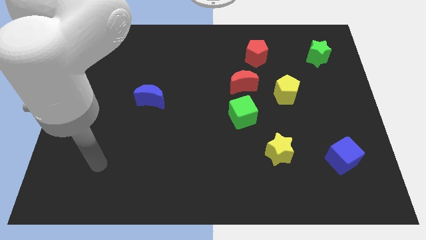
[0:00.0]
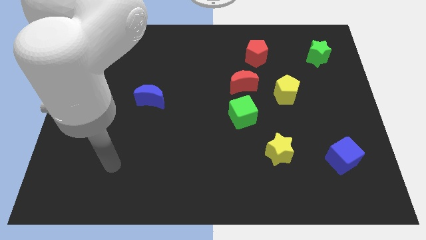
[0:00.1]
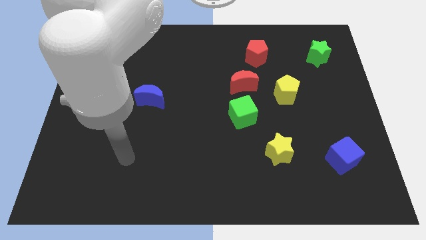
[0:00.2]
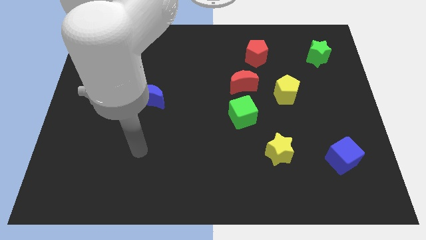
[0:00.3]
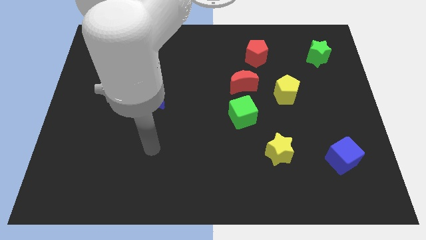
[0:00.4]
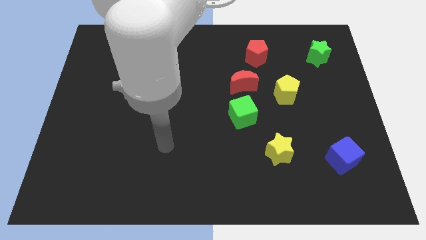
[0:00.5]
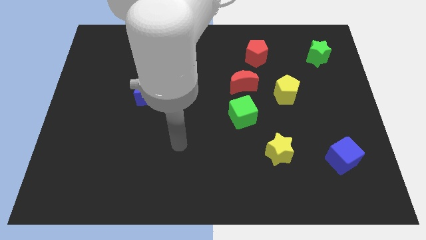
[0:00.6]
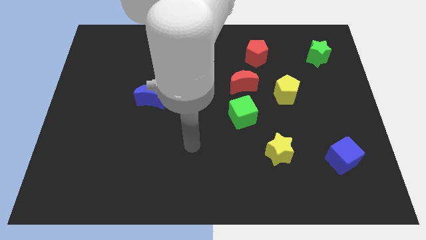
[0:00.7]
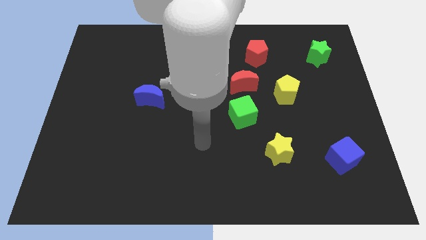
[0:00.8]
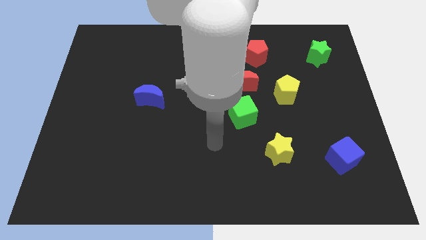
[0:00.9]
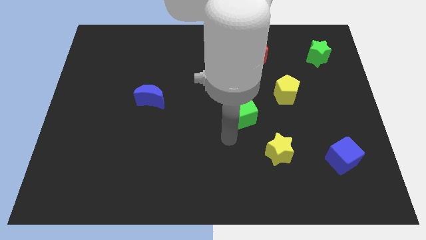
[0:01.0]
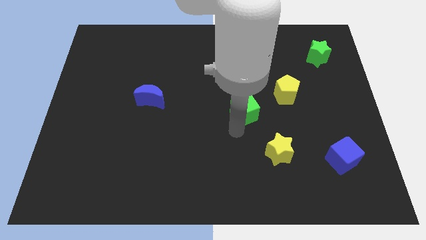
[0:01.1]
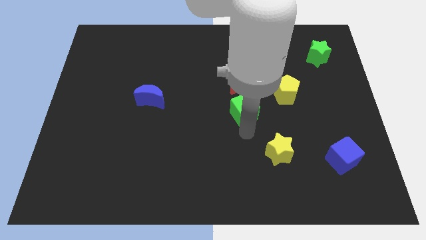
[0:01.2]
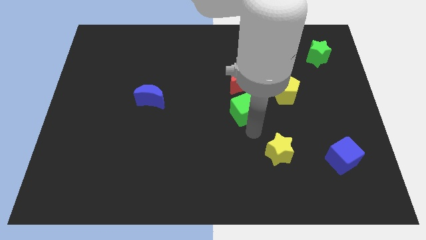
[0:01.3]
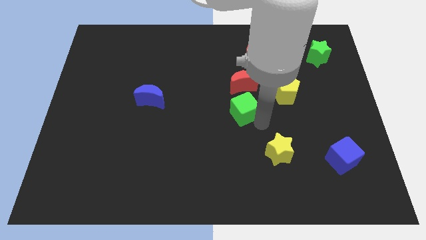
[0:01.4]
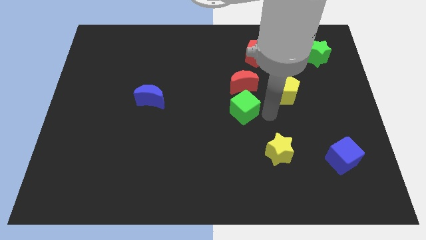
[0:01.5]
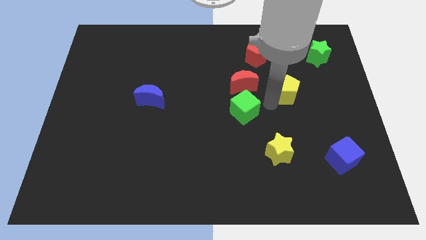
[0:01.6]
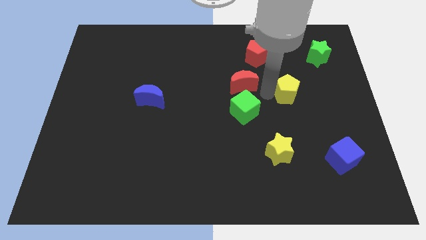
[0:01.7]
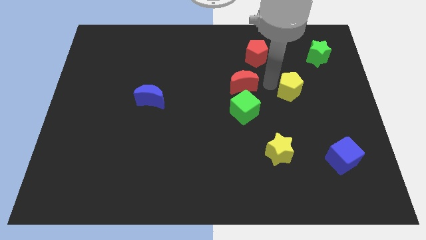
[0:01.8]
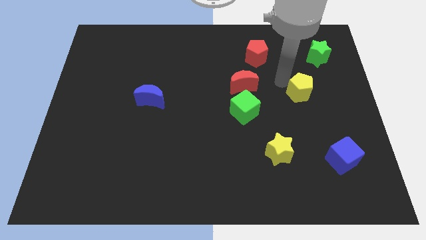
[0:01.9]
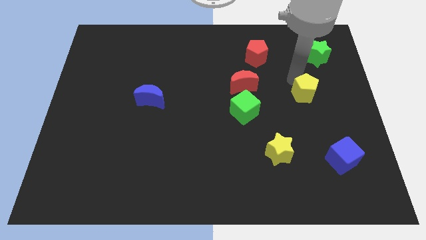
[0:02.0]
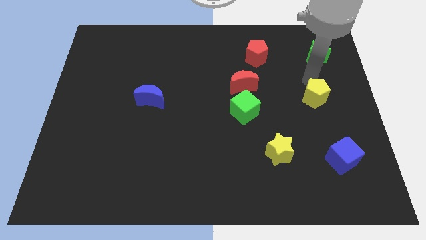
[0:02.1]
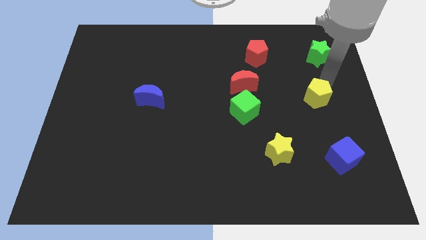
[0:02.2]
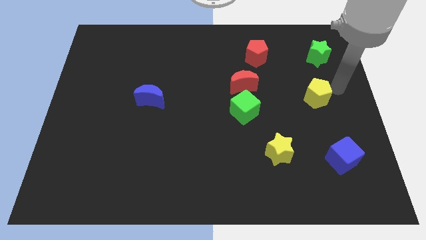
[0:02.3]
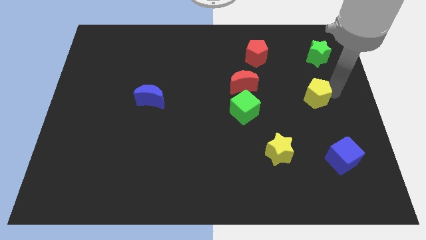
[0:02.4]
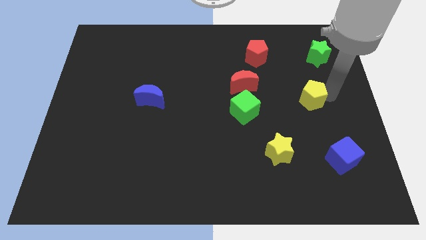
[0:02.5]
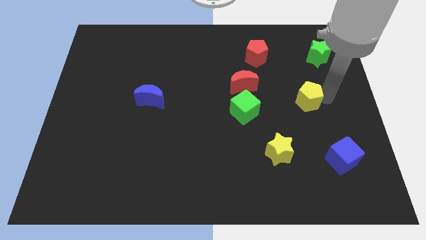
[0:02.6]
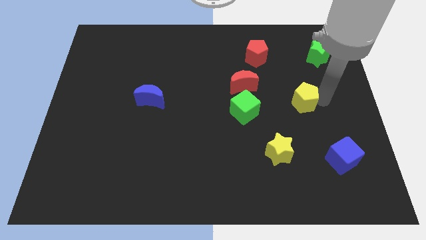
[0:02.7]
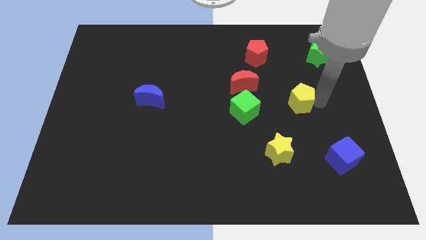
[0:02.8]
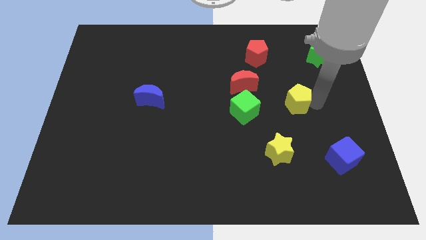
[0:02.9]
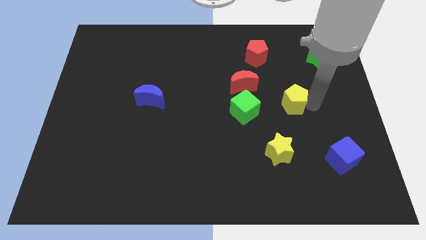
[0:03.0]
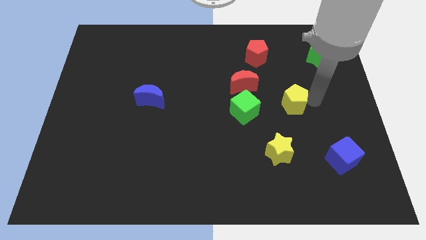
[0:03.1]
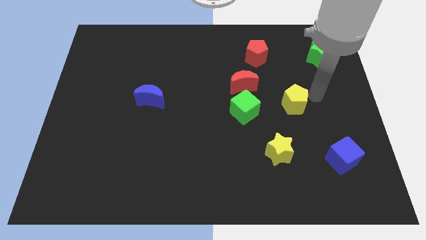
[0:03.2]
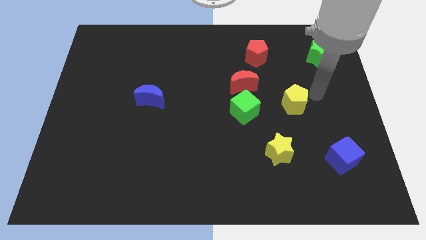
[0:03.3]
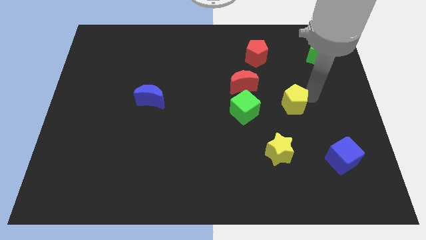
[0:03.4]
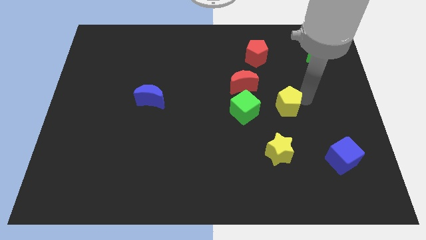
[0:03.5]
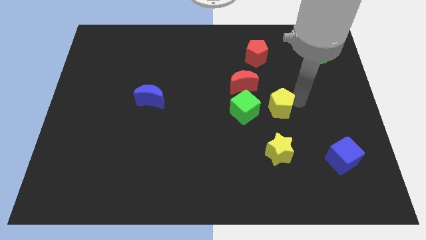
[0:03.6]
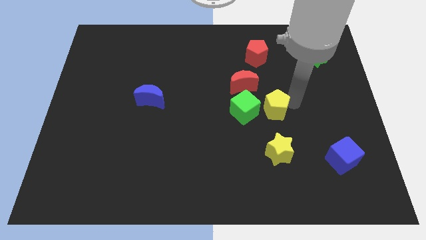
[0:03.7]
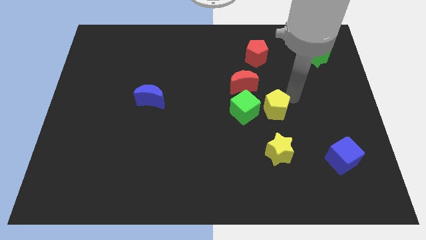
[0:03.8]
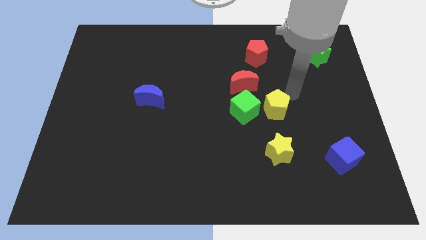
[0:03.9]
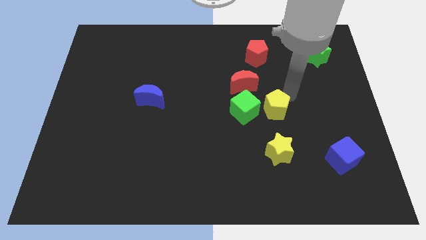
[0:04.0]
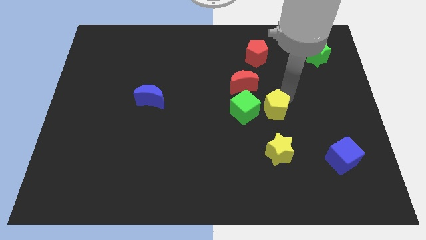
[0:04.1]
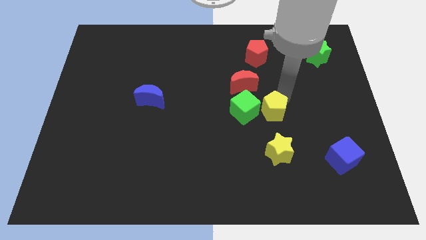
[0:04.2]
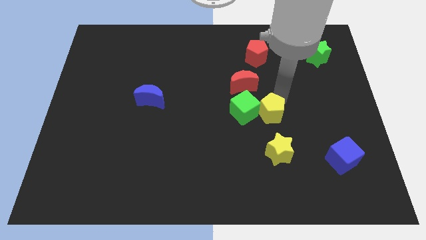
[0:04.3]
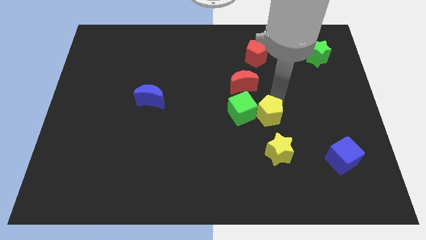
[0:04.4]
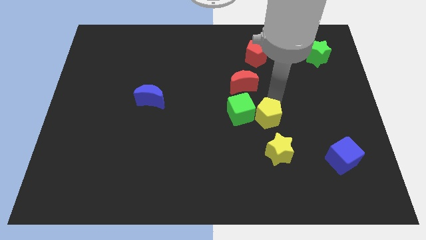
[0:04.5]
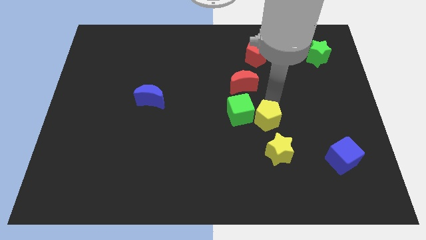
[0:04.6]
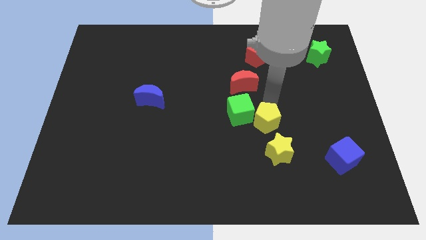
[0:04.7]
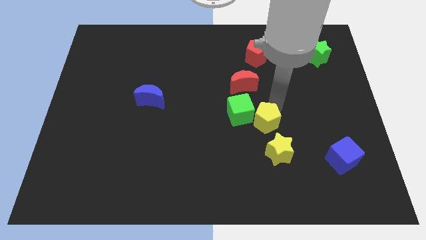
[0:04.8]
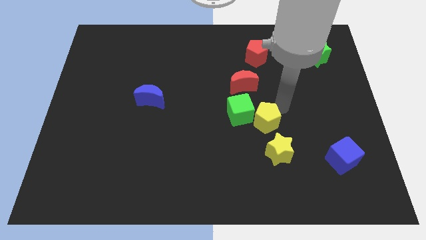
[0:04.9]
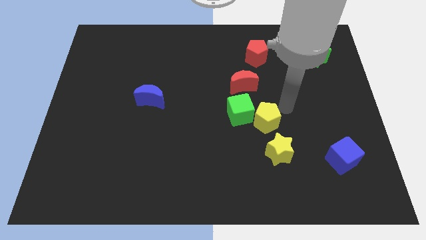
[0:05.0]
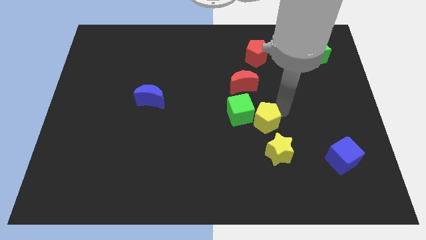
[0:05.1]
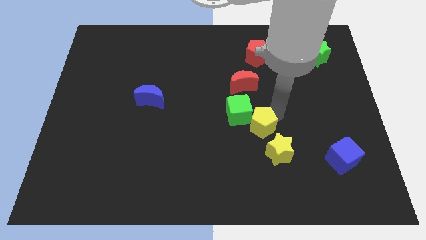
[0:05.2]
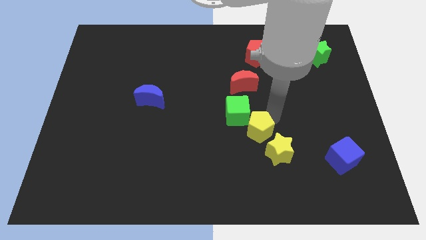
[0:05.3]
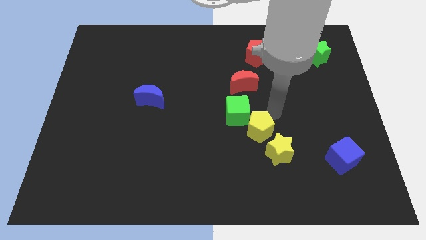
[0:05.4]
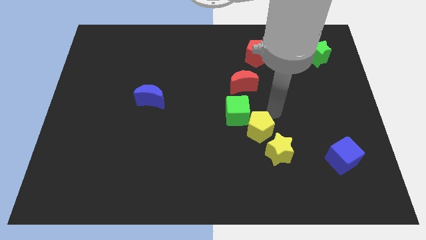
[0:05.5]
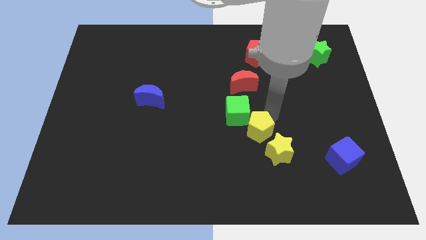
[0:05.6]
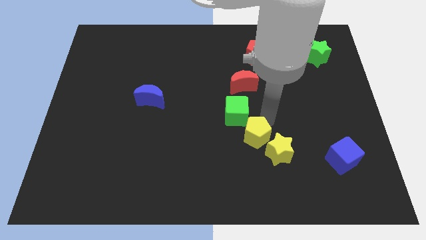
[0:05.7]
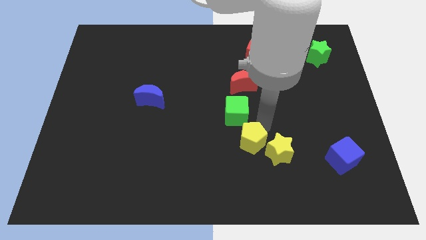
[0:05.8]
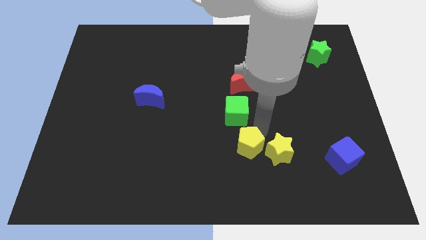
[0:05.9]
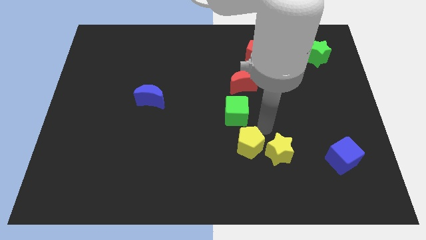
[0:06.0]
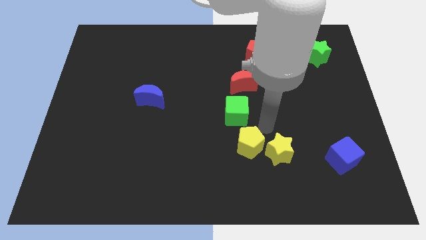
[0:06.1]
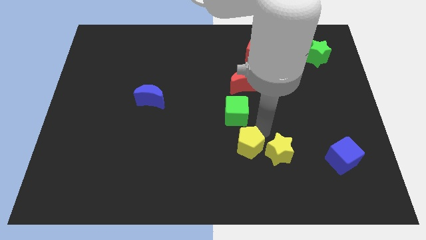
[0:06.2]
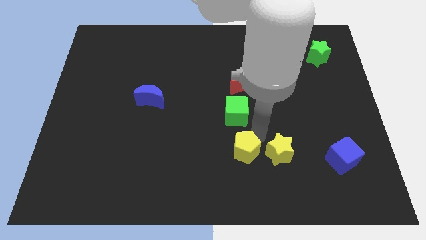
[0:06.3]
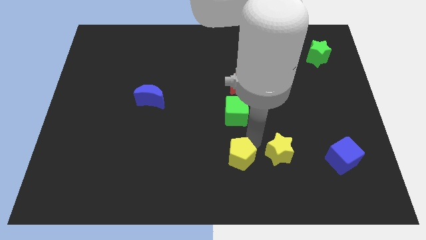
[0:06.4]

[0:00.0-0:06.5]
push the yellow pentagon to the bottom side

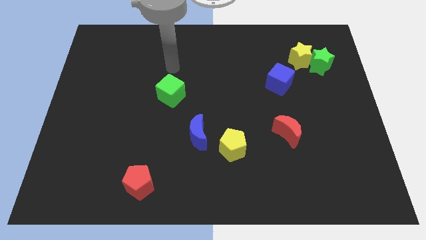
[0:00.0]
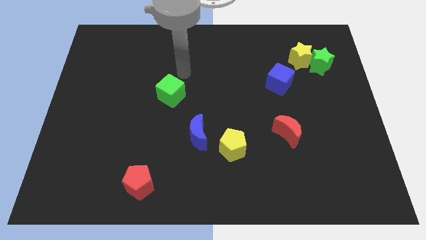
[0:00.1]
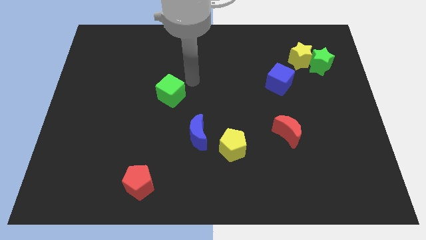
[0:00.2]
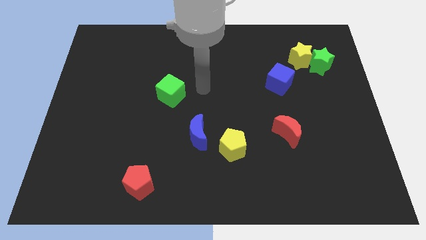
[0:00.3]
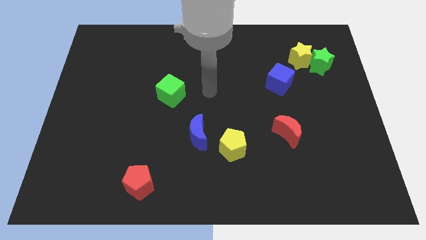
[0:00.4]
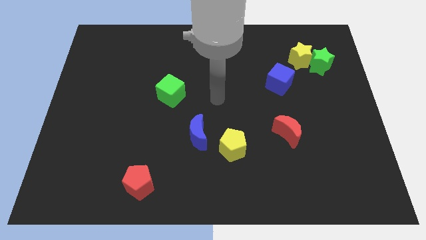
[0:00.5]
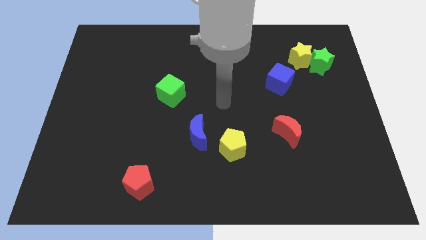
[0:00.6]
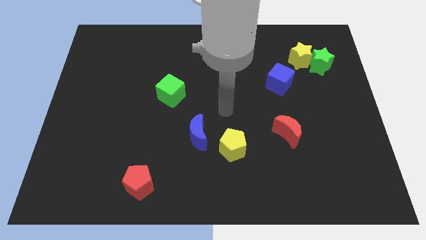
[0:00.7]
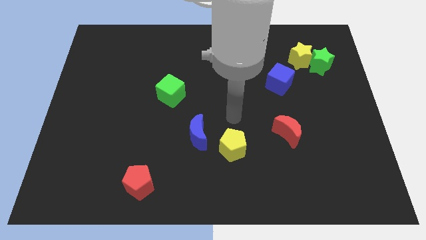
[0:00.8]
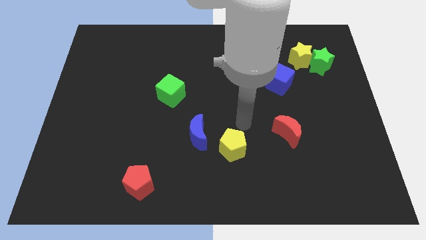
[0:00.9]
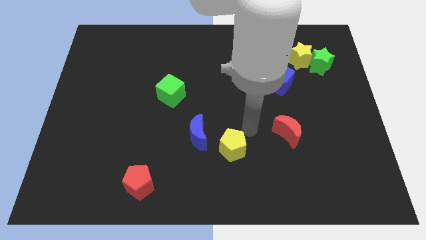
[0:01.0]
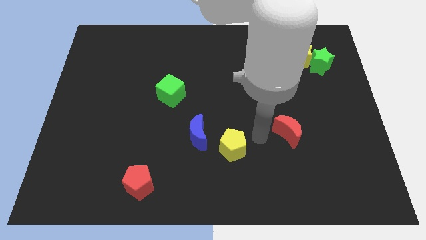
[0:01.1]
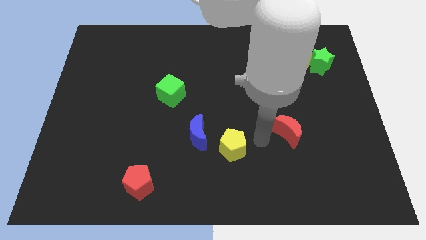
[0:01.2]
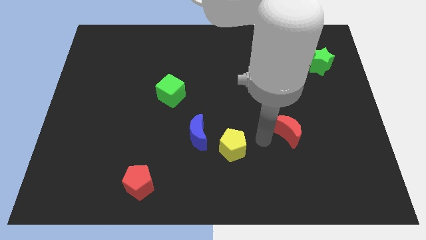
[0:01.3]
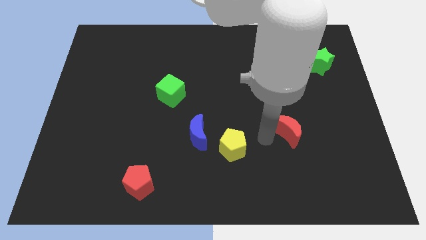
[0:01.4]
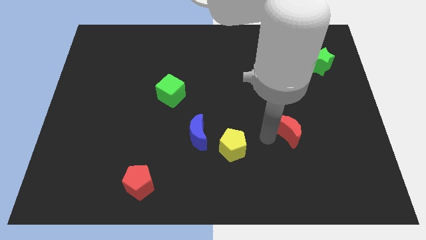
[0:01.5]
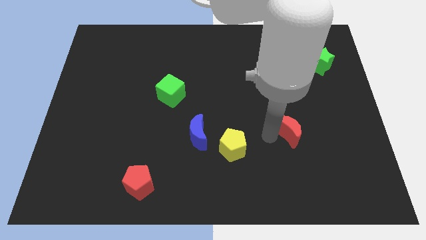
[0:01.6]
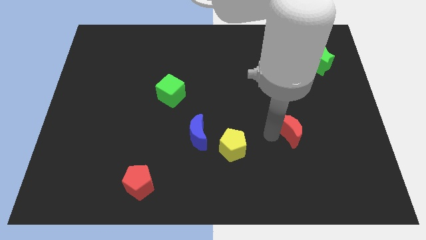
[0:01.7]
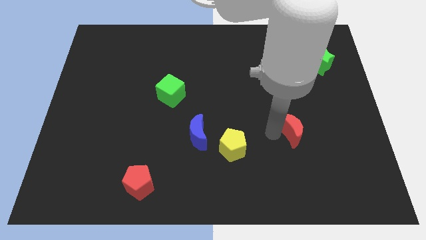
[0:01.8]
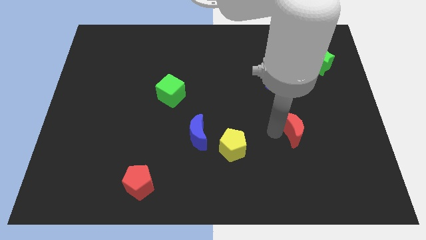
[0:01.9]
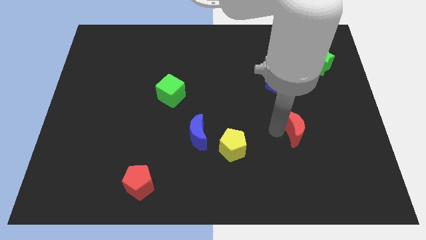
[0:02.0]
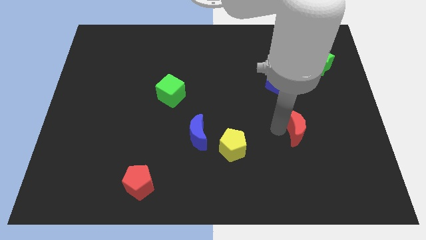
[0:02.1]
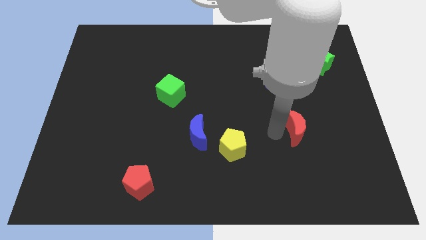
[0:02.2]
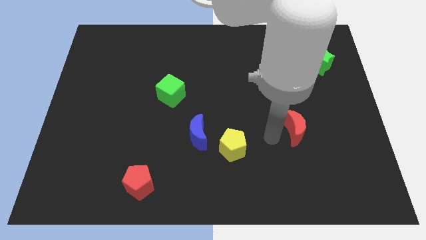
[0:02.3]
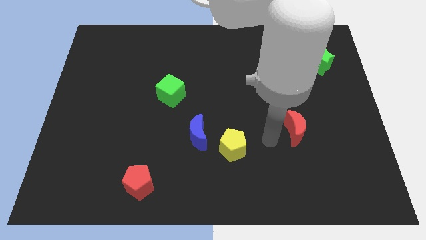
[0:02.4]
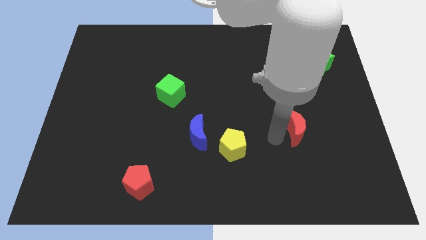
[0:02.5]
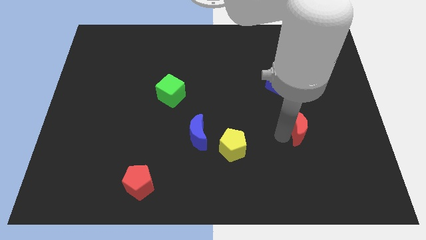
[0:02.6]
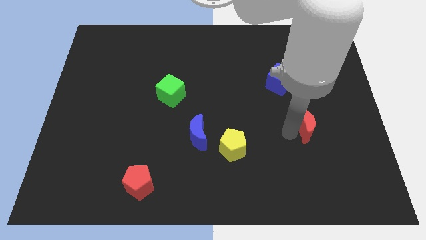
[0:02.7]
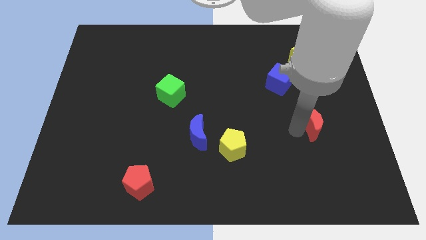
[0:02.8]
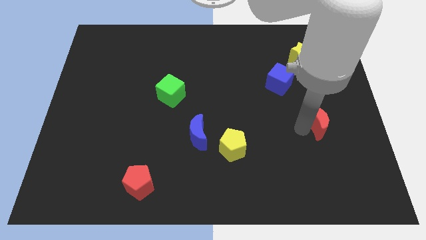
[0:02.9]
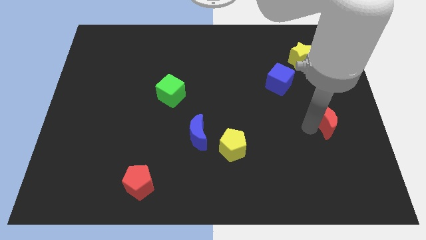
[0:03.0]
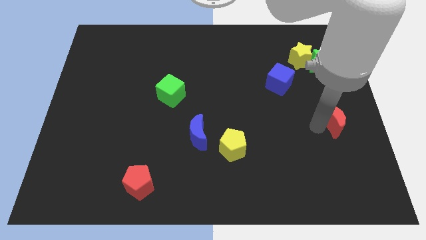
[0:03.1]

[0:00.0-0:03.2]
slide the red moon to the right side
